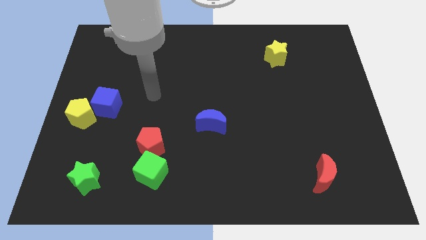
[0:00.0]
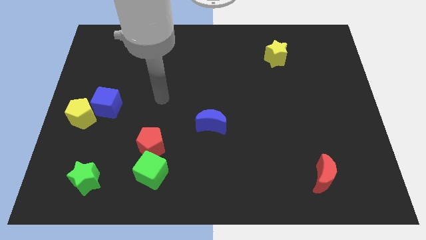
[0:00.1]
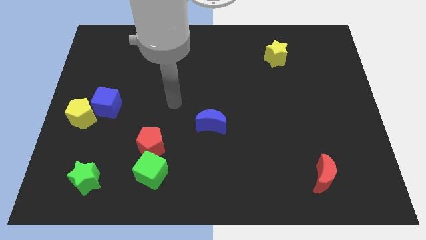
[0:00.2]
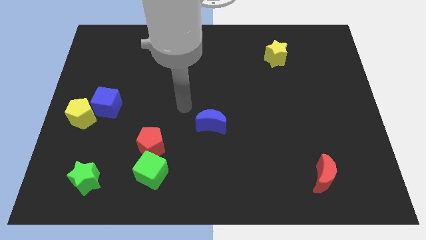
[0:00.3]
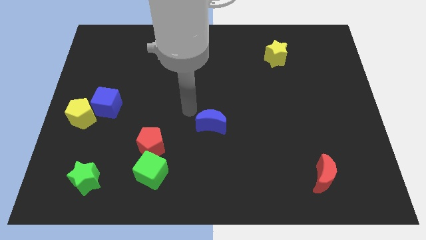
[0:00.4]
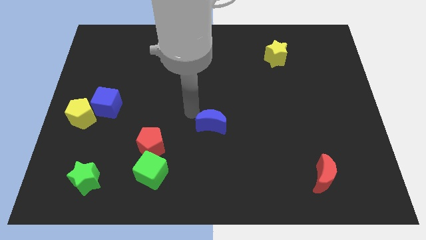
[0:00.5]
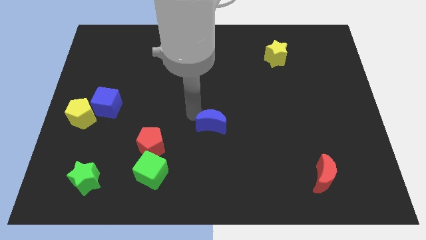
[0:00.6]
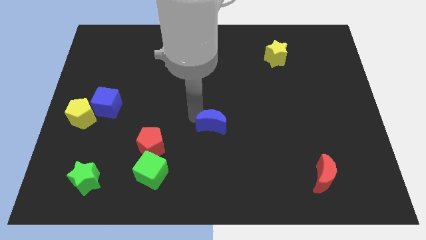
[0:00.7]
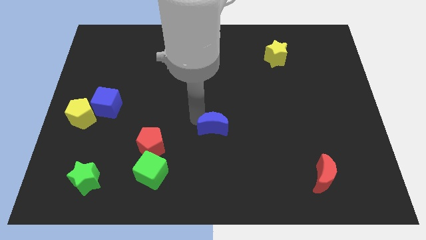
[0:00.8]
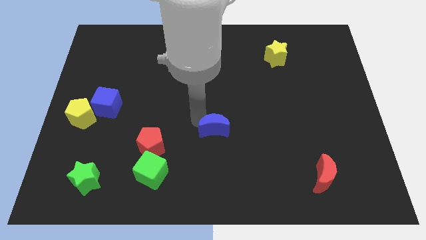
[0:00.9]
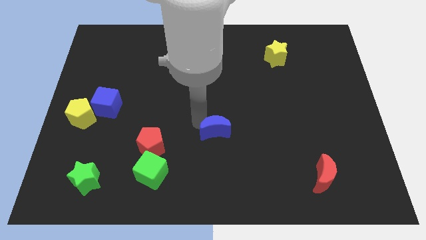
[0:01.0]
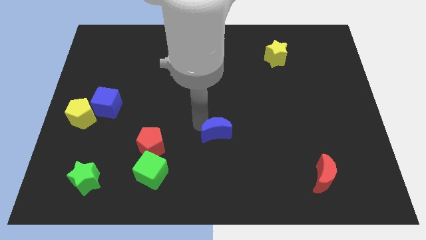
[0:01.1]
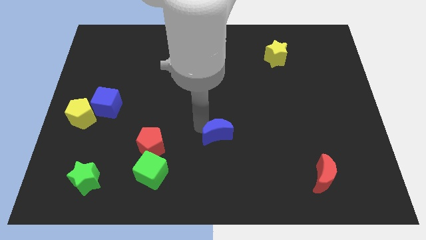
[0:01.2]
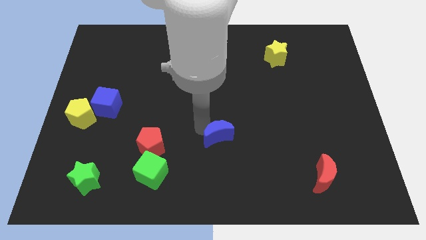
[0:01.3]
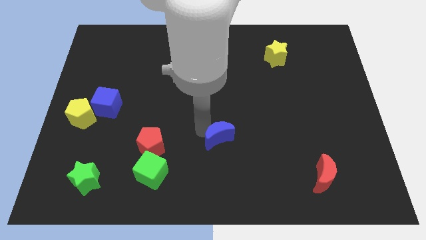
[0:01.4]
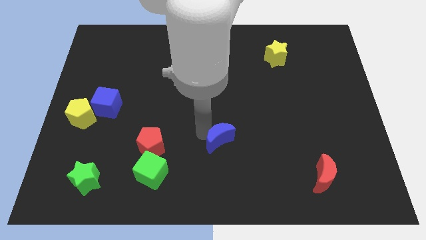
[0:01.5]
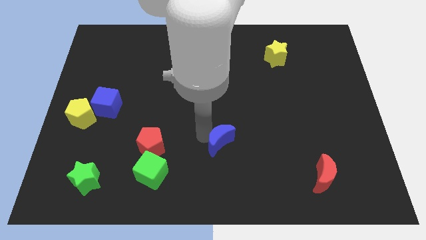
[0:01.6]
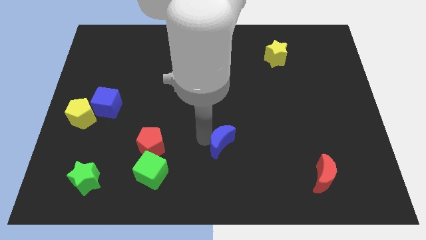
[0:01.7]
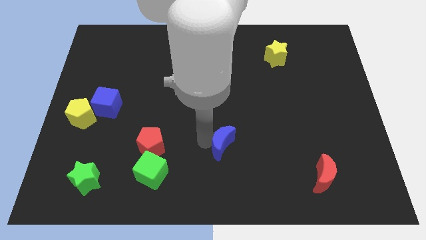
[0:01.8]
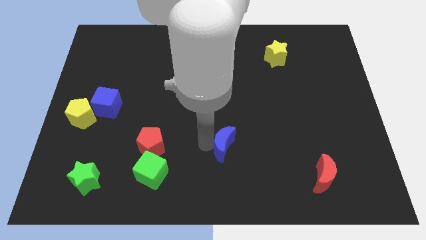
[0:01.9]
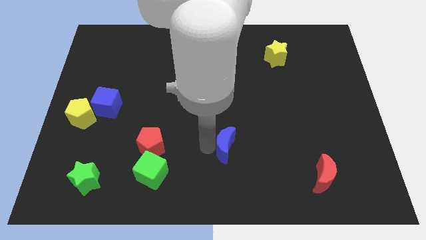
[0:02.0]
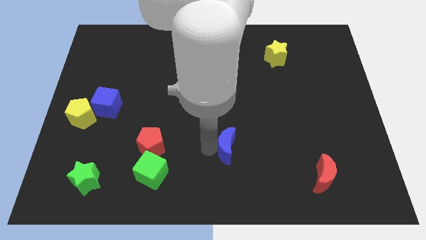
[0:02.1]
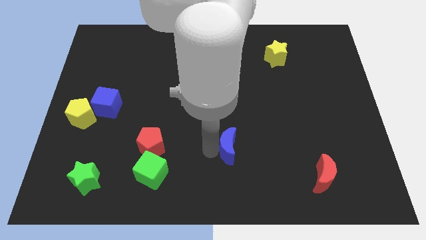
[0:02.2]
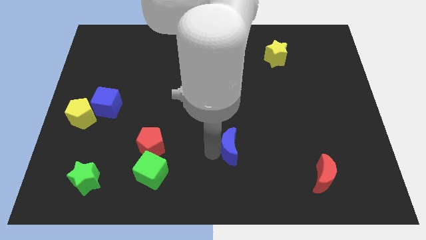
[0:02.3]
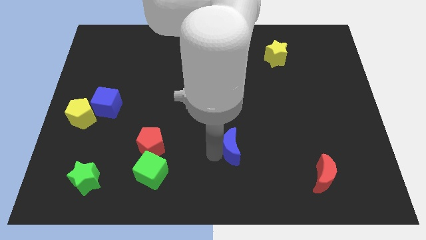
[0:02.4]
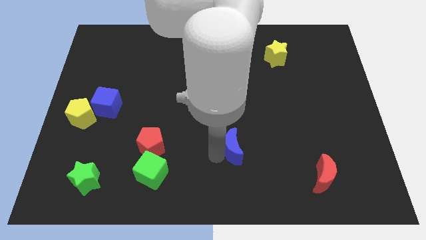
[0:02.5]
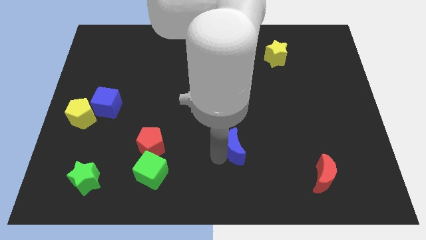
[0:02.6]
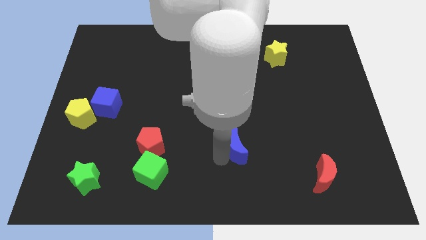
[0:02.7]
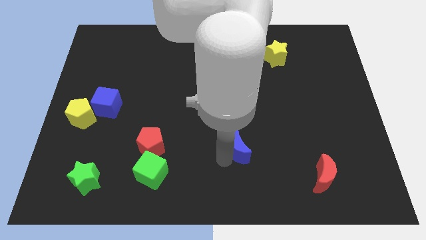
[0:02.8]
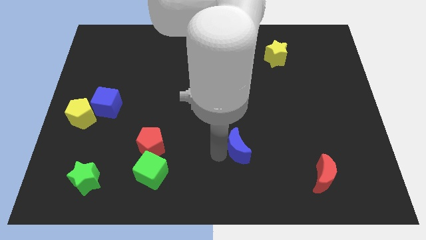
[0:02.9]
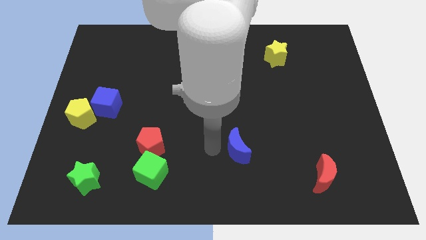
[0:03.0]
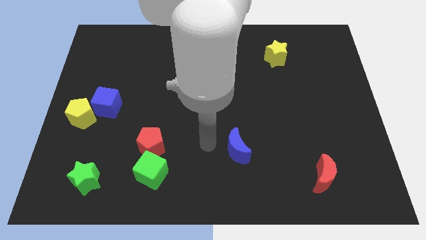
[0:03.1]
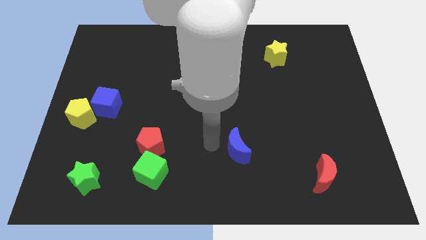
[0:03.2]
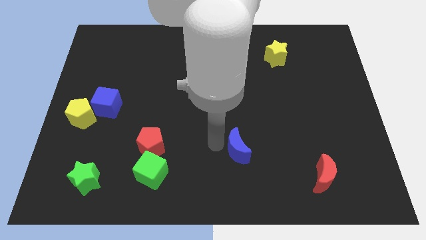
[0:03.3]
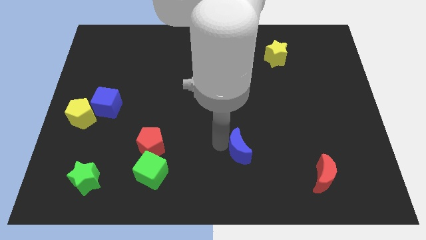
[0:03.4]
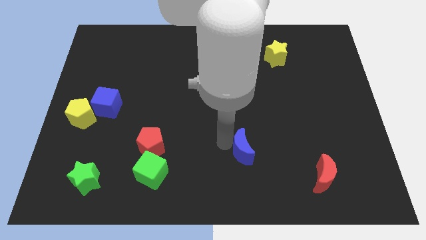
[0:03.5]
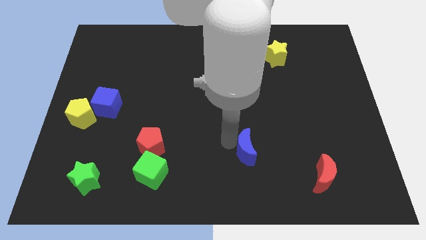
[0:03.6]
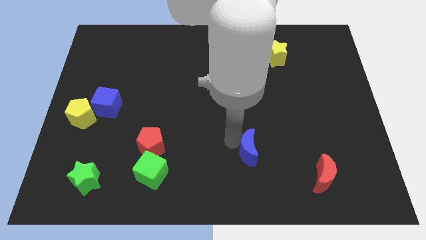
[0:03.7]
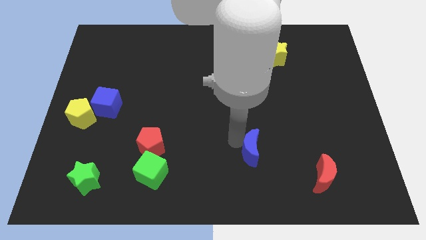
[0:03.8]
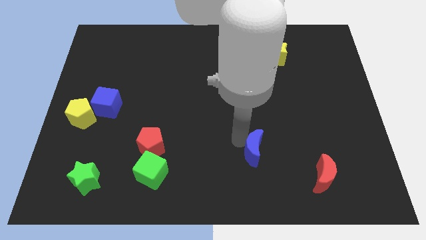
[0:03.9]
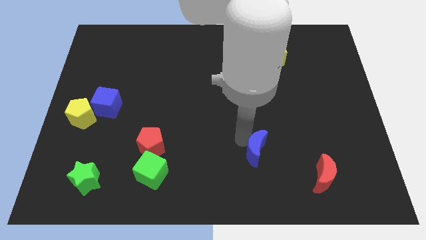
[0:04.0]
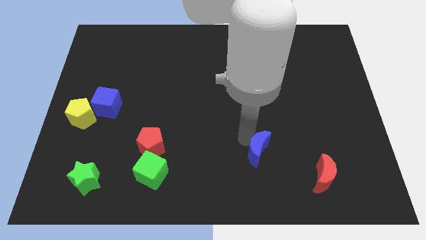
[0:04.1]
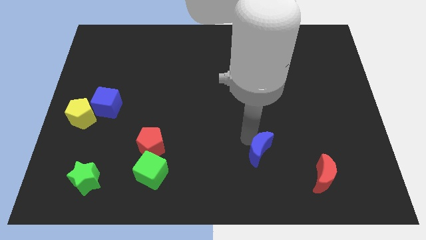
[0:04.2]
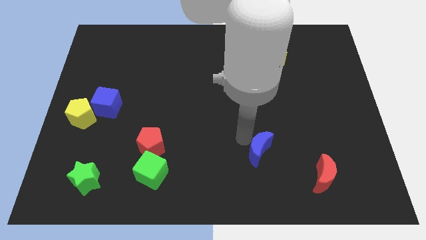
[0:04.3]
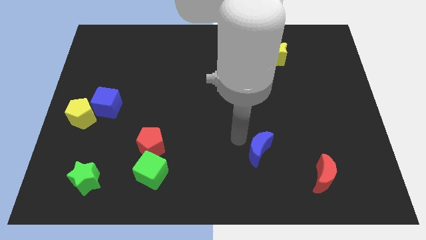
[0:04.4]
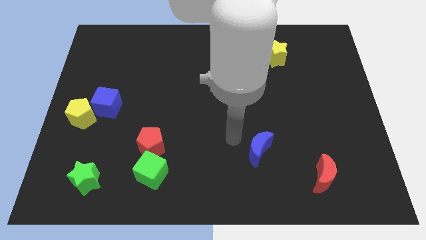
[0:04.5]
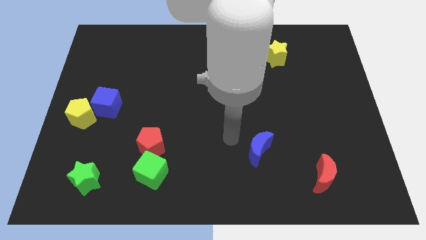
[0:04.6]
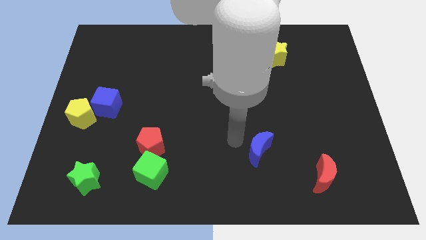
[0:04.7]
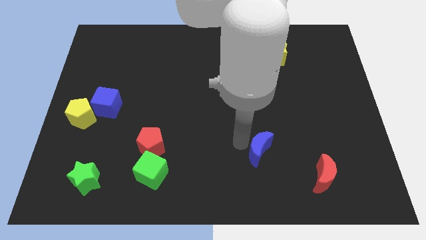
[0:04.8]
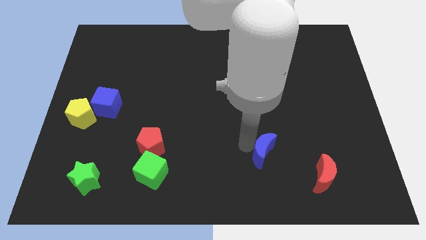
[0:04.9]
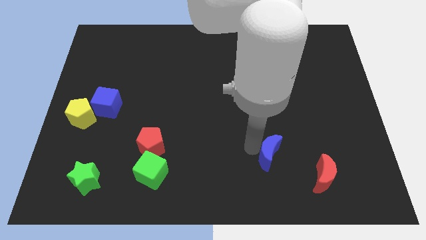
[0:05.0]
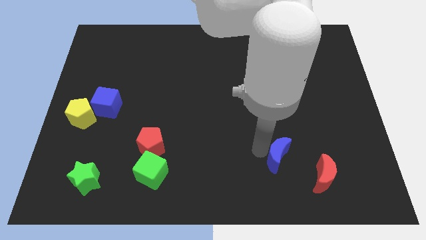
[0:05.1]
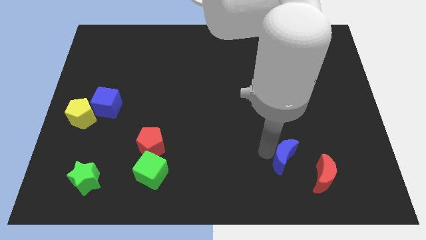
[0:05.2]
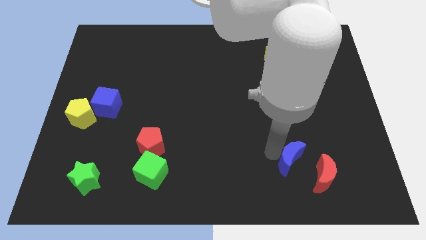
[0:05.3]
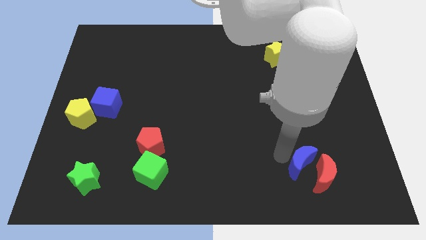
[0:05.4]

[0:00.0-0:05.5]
slide the blue moon close to the red moon

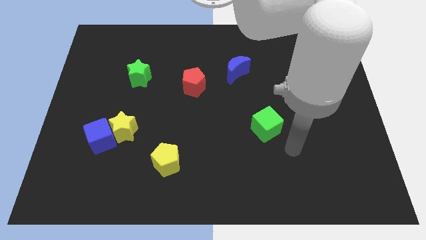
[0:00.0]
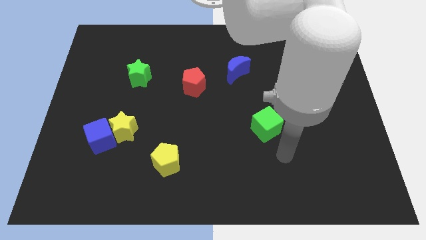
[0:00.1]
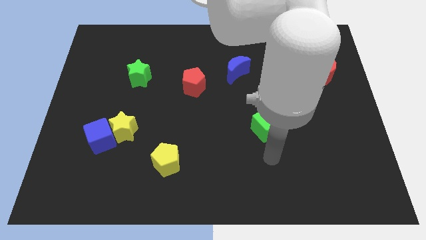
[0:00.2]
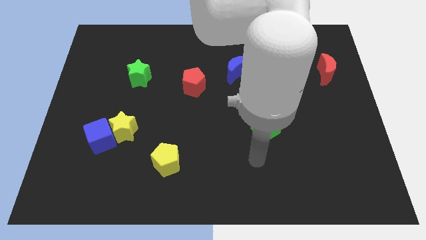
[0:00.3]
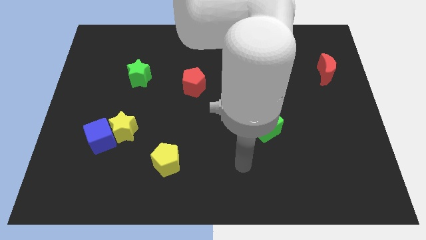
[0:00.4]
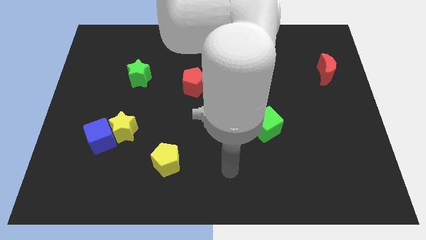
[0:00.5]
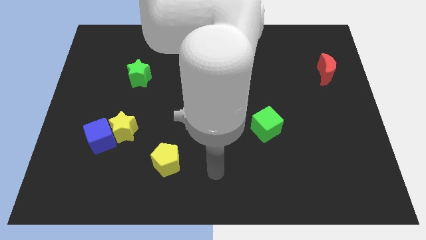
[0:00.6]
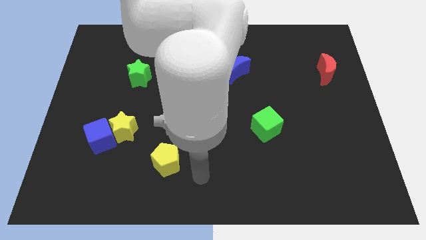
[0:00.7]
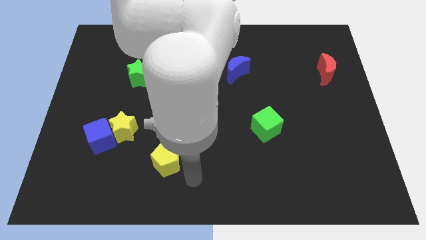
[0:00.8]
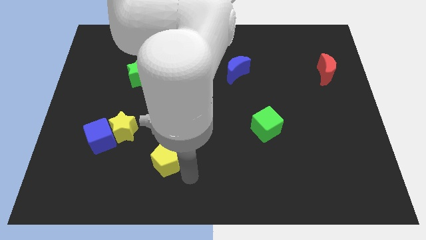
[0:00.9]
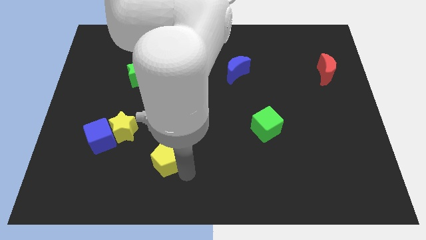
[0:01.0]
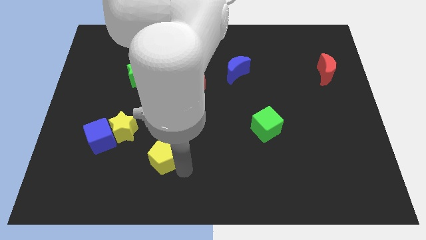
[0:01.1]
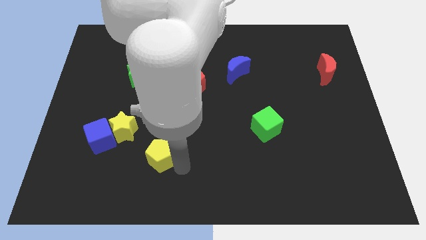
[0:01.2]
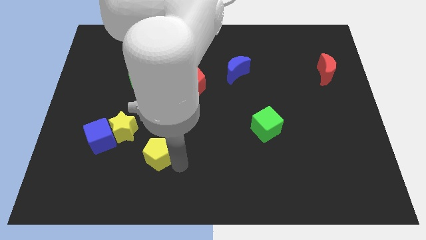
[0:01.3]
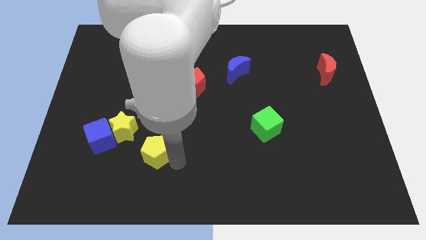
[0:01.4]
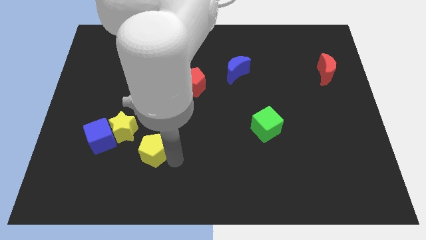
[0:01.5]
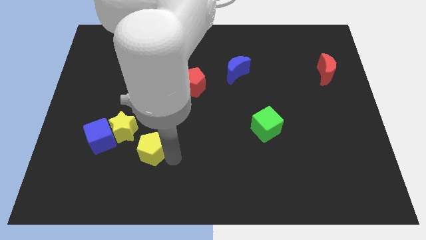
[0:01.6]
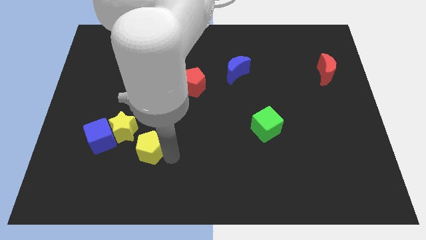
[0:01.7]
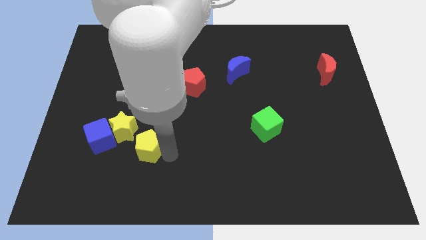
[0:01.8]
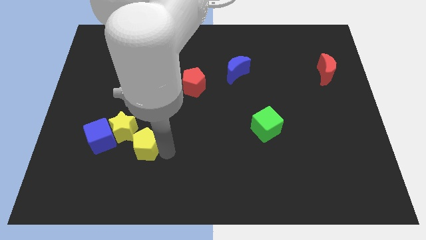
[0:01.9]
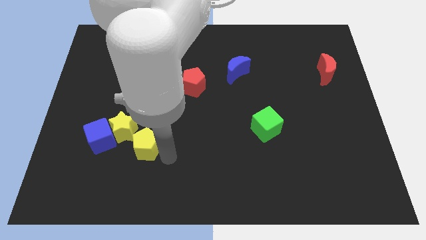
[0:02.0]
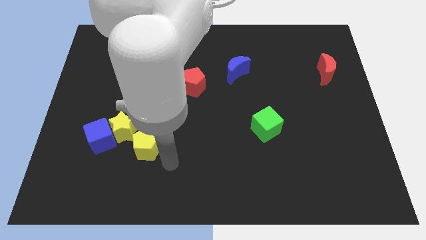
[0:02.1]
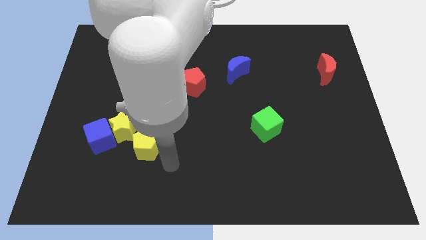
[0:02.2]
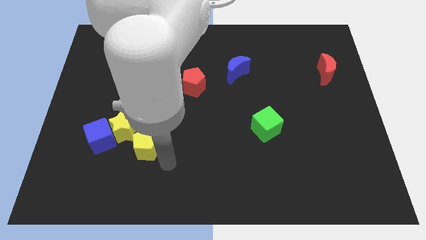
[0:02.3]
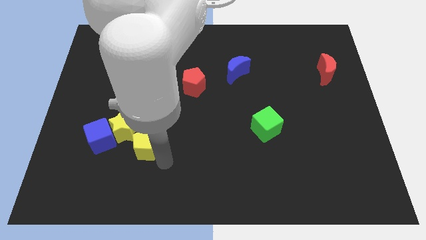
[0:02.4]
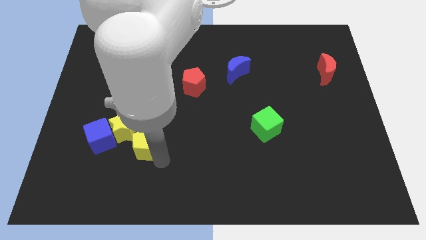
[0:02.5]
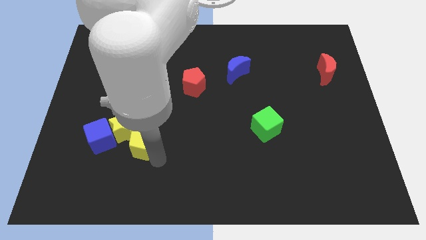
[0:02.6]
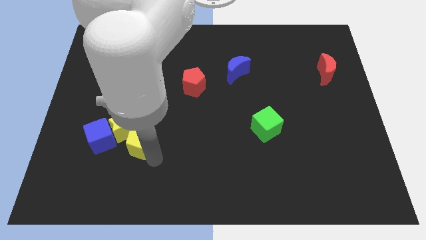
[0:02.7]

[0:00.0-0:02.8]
put the yellow pentagon to the yellow star
